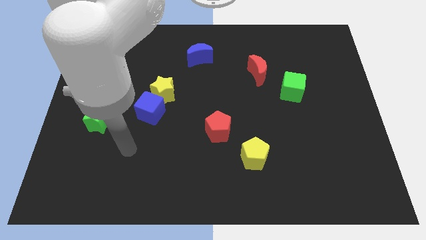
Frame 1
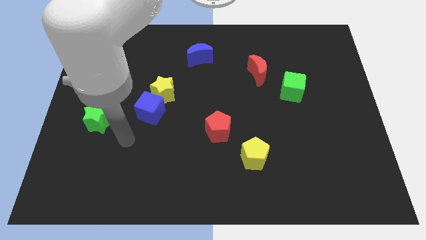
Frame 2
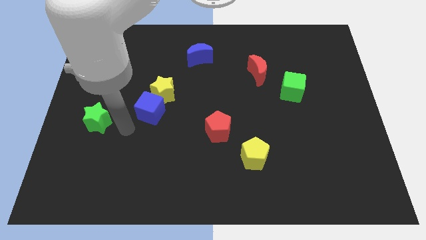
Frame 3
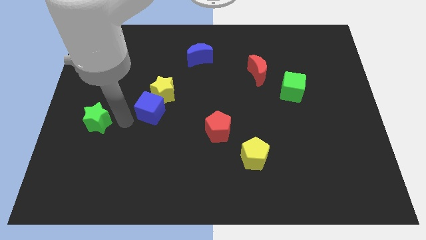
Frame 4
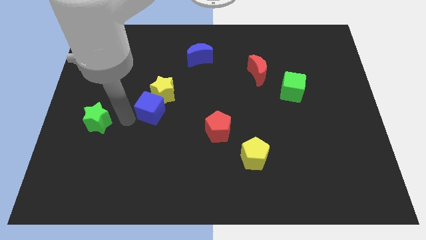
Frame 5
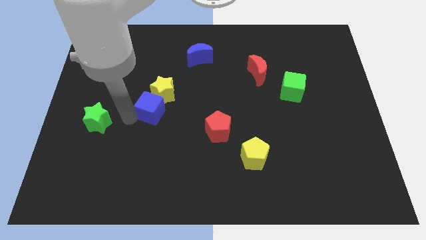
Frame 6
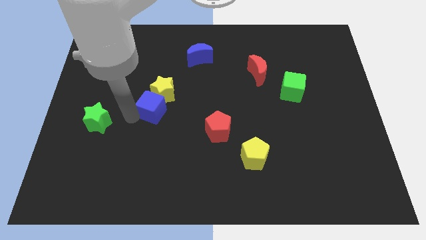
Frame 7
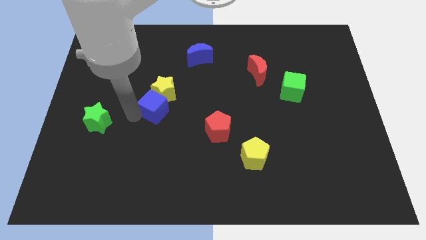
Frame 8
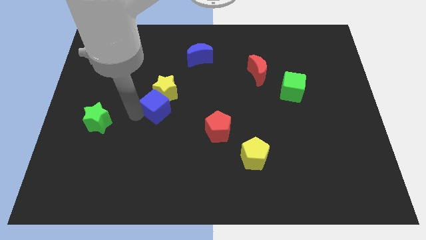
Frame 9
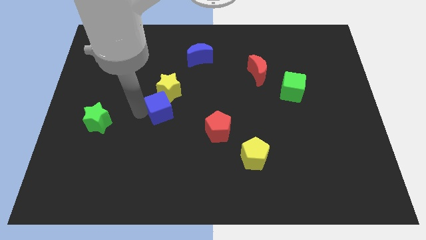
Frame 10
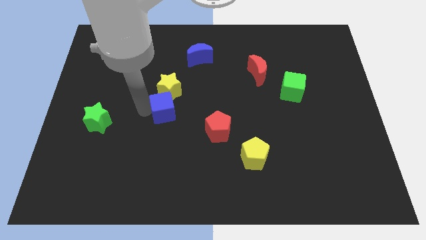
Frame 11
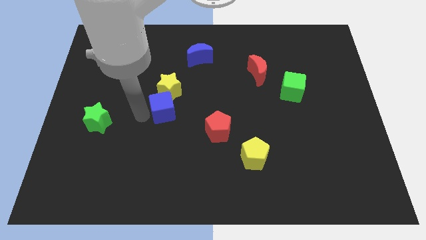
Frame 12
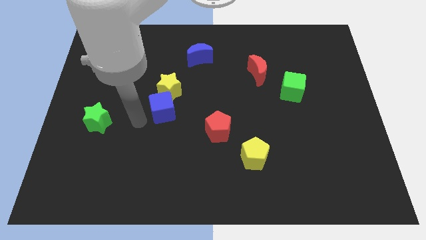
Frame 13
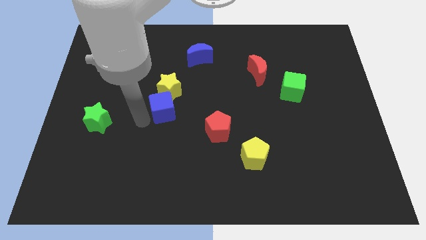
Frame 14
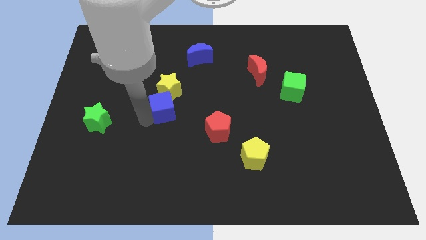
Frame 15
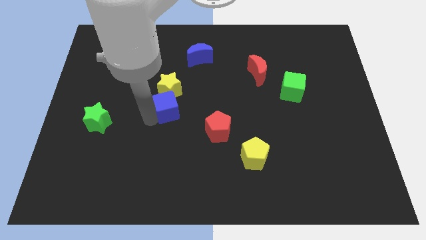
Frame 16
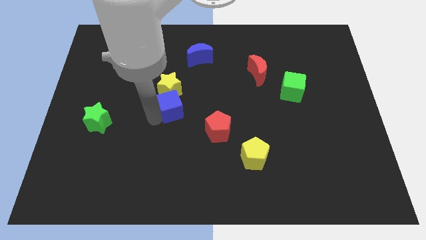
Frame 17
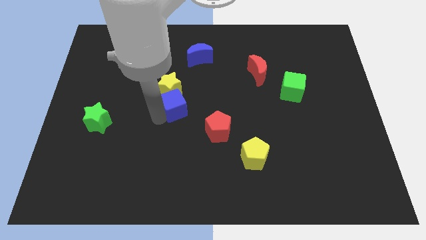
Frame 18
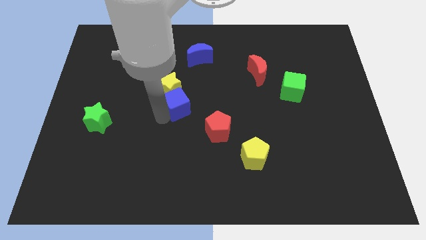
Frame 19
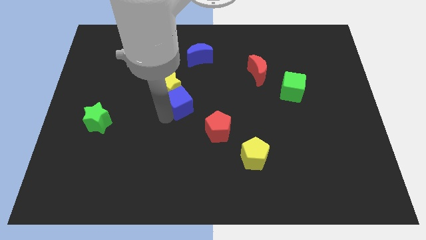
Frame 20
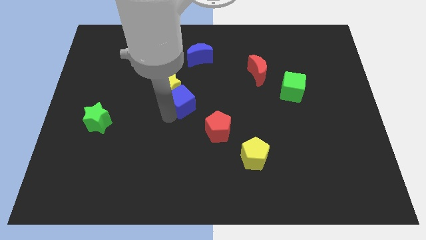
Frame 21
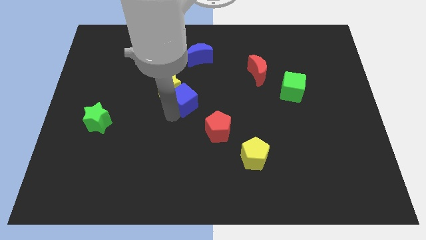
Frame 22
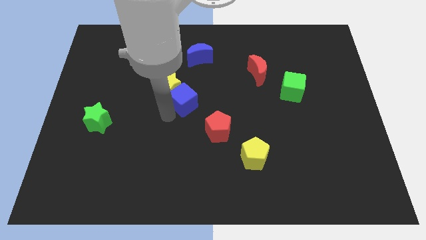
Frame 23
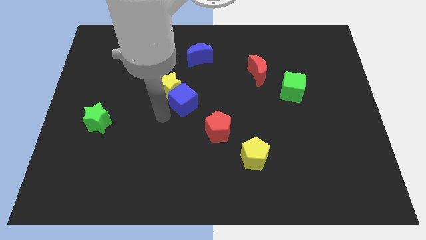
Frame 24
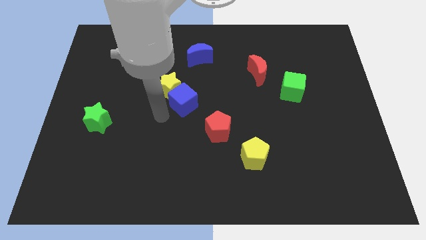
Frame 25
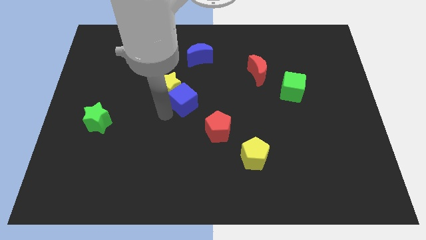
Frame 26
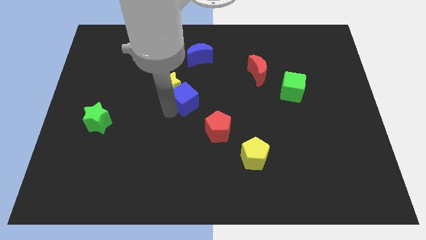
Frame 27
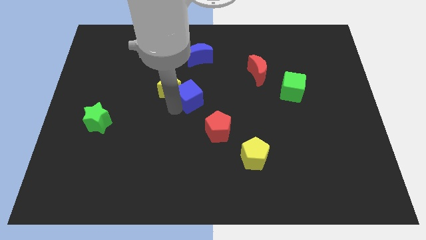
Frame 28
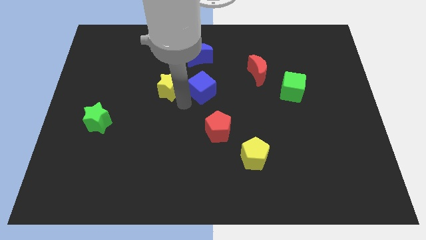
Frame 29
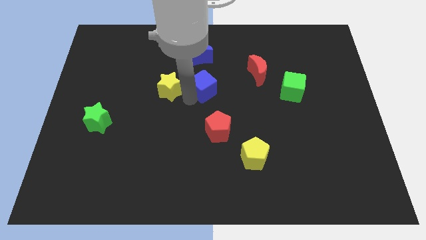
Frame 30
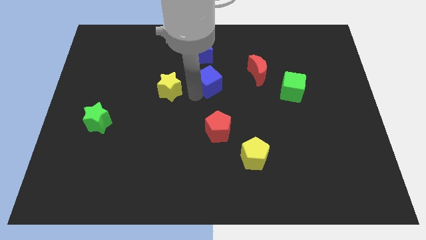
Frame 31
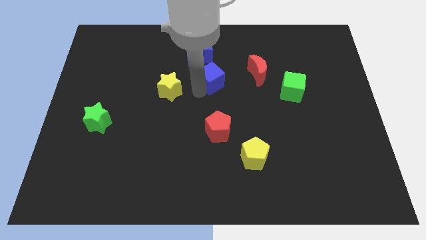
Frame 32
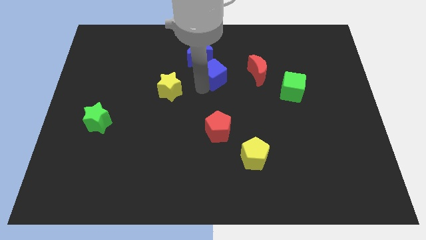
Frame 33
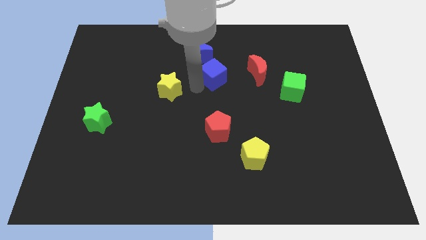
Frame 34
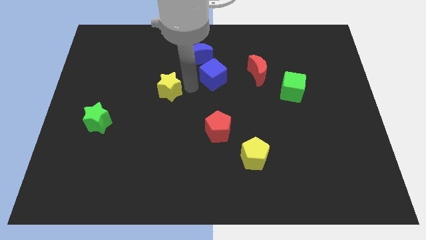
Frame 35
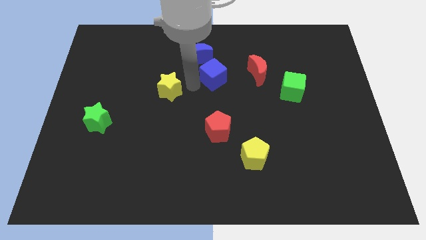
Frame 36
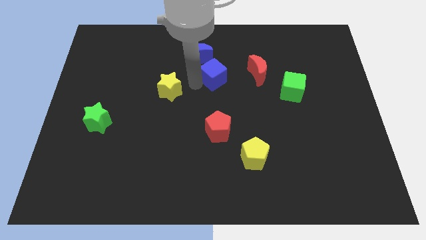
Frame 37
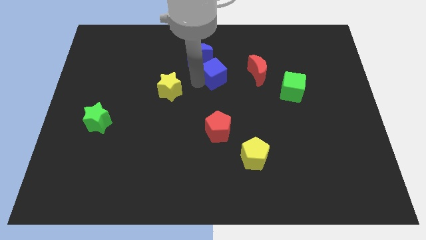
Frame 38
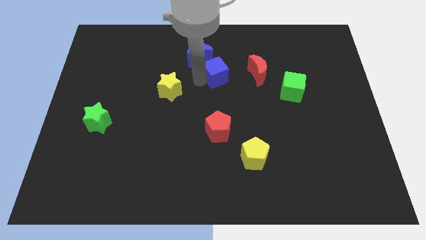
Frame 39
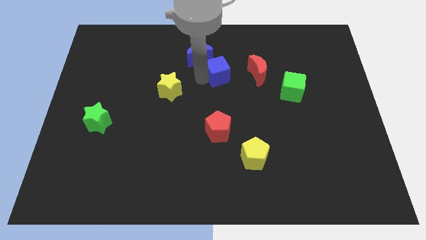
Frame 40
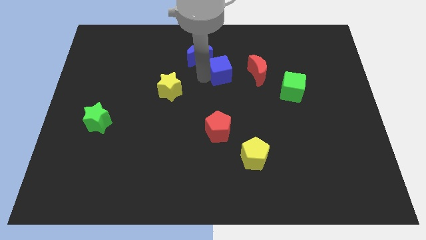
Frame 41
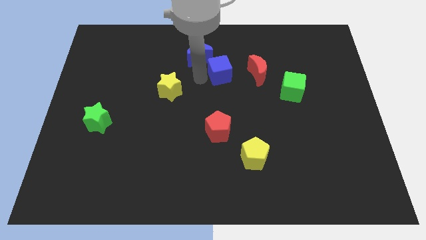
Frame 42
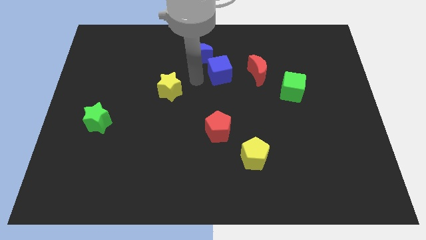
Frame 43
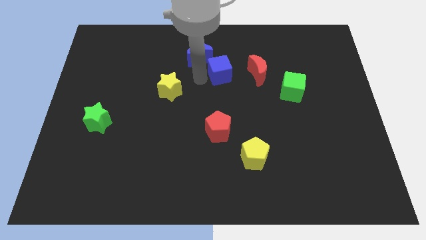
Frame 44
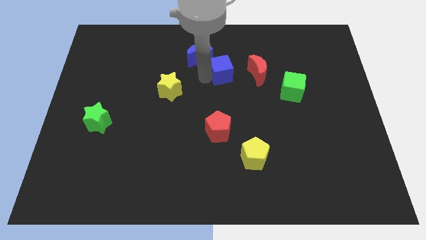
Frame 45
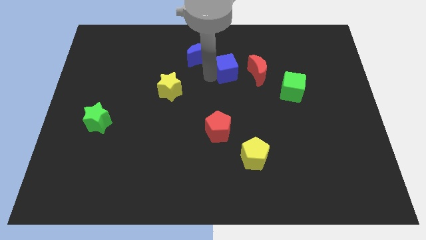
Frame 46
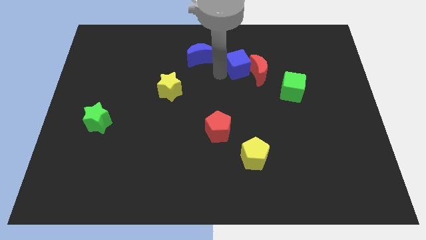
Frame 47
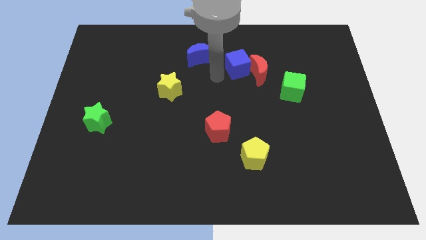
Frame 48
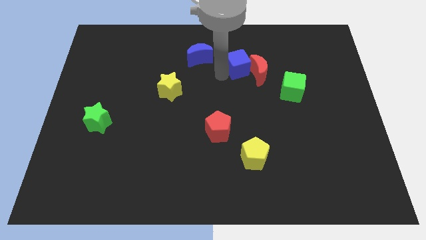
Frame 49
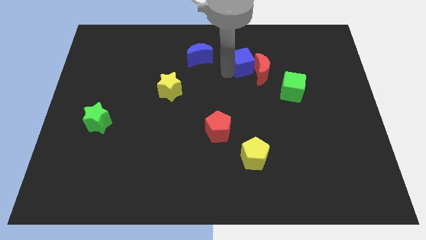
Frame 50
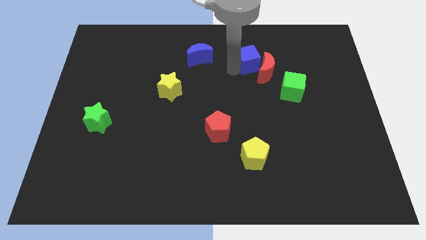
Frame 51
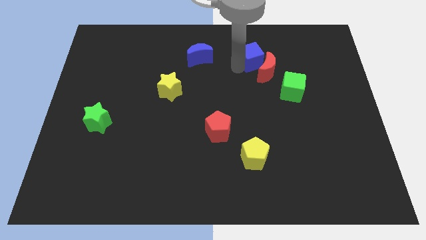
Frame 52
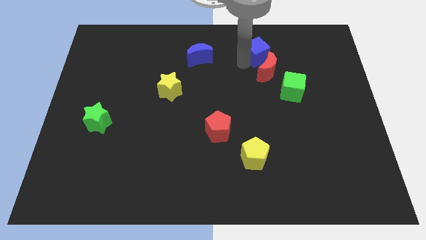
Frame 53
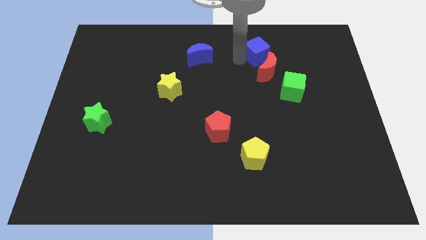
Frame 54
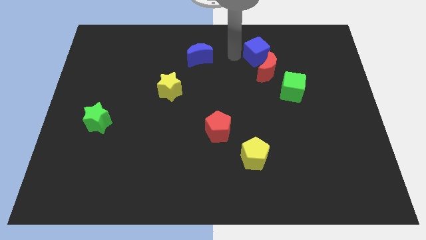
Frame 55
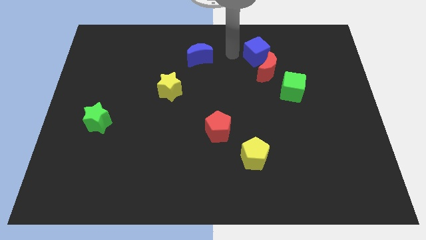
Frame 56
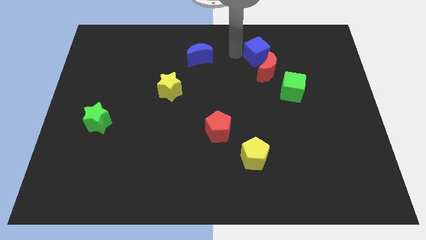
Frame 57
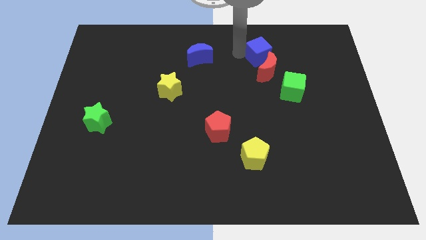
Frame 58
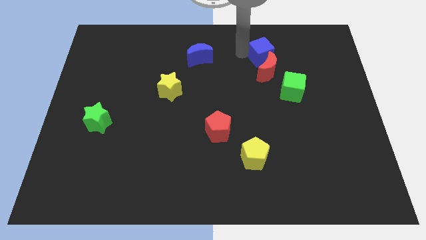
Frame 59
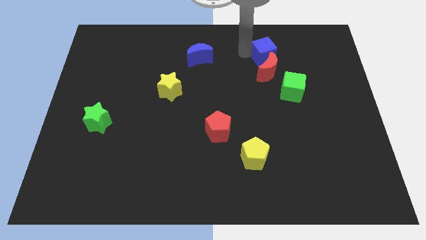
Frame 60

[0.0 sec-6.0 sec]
put the blue cube to the top right side of the red moon

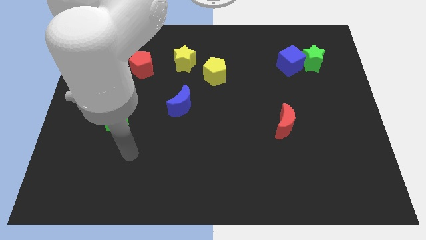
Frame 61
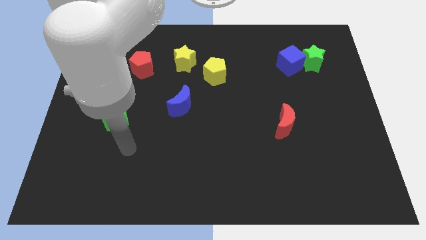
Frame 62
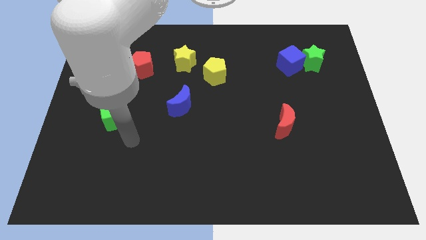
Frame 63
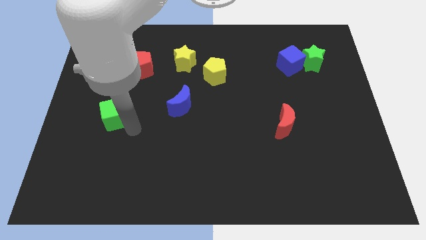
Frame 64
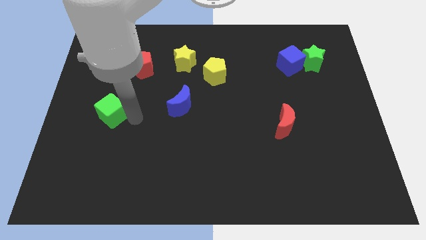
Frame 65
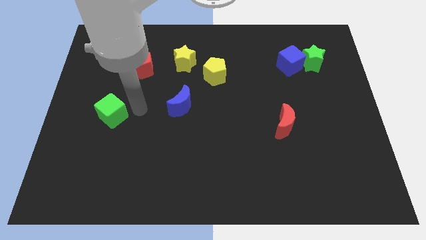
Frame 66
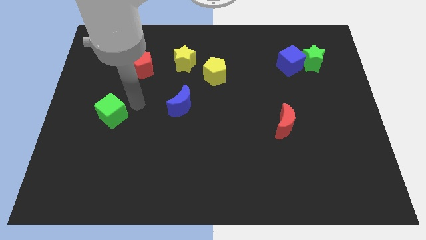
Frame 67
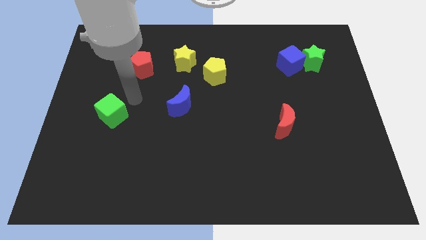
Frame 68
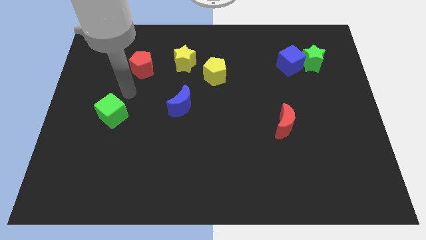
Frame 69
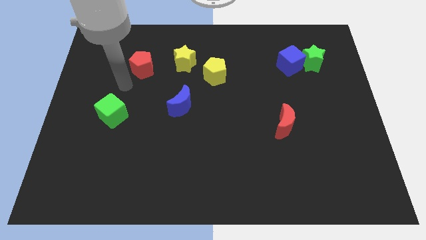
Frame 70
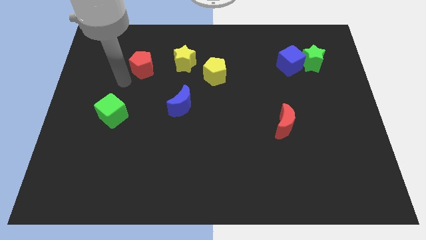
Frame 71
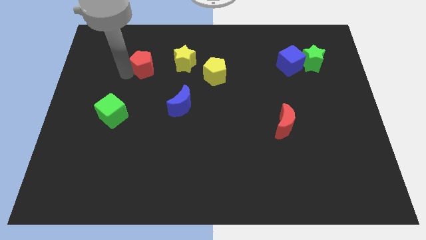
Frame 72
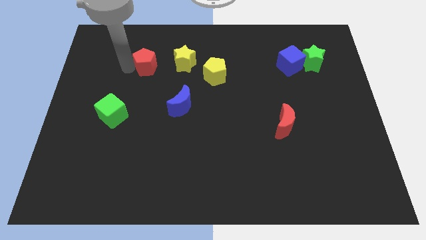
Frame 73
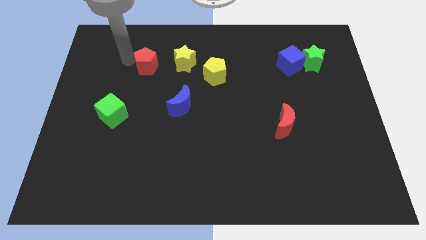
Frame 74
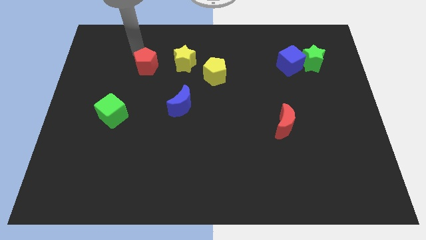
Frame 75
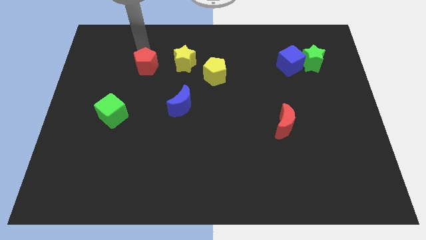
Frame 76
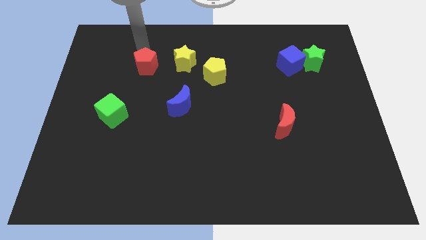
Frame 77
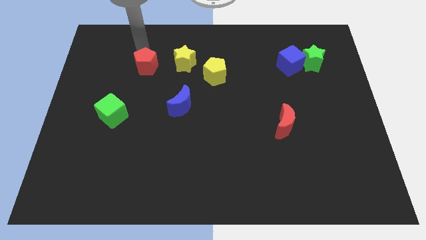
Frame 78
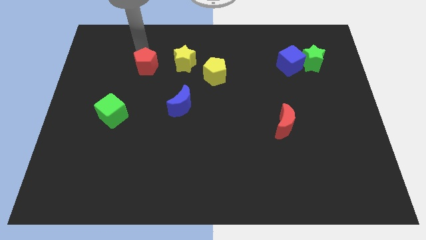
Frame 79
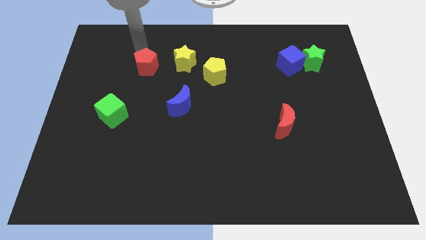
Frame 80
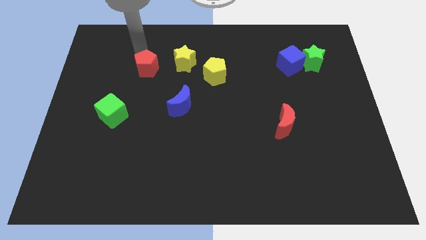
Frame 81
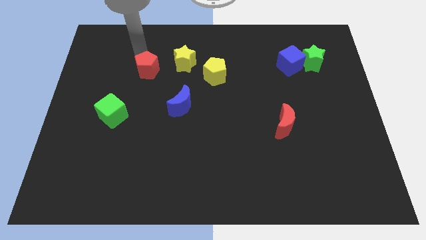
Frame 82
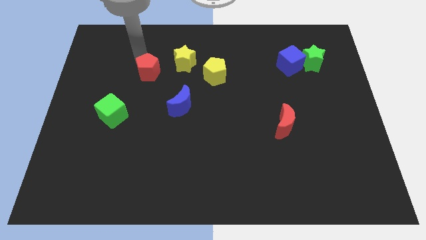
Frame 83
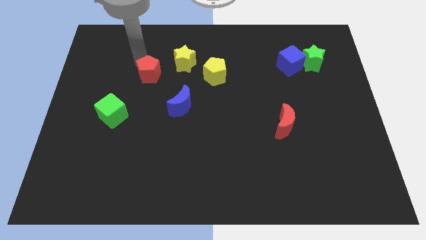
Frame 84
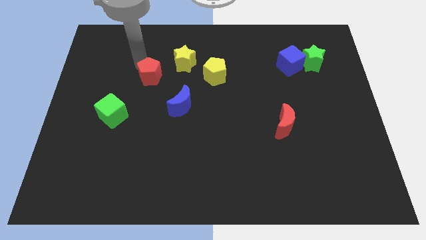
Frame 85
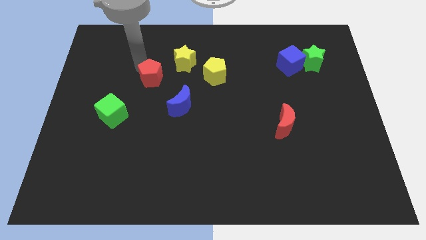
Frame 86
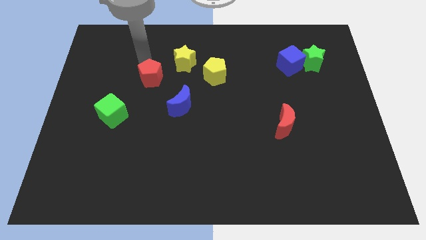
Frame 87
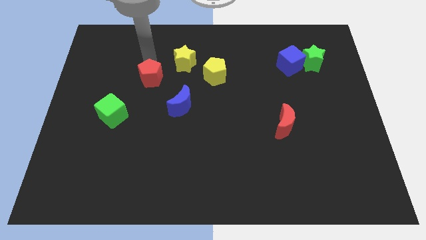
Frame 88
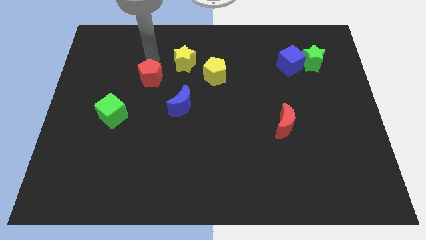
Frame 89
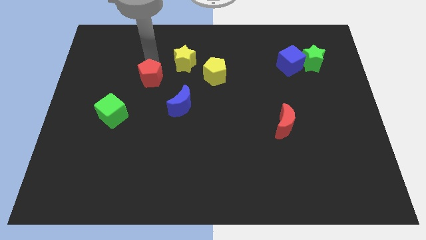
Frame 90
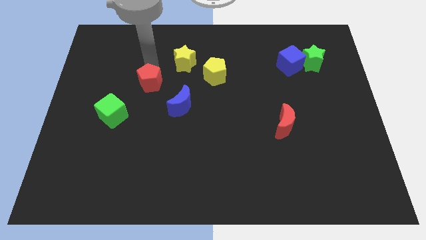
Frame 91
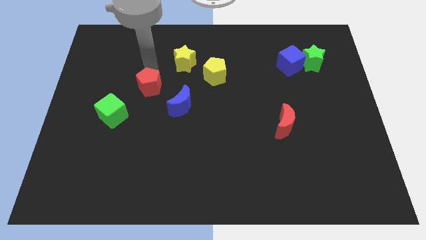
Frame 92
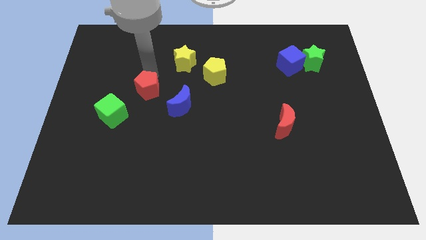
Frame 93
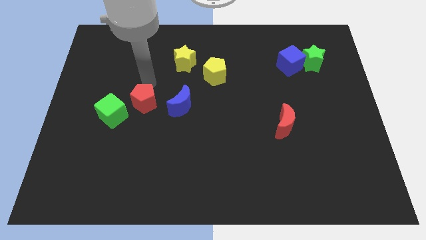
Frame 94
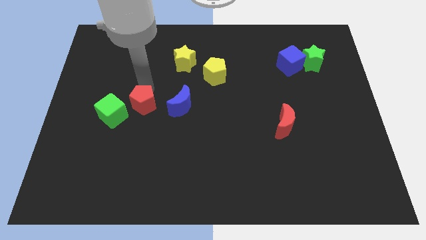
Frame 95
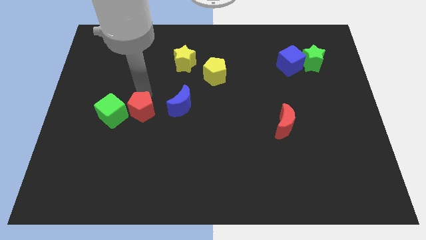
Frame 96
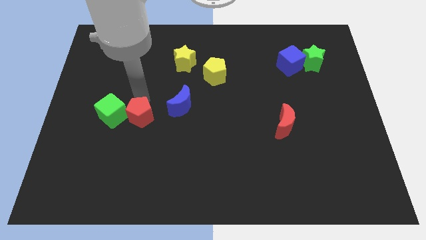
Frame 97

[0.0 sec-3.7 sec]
slide the red pentagon diagonally down and to the left of the blue moon
